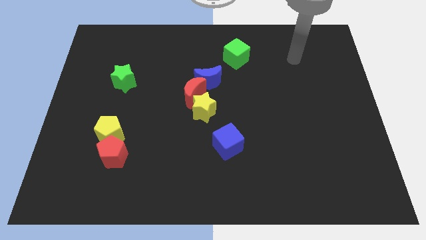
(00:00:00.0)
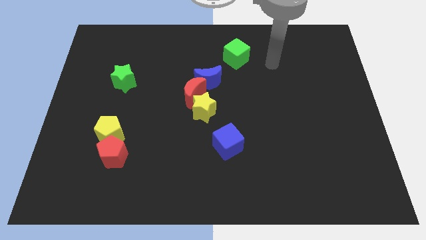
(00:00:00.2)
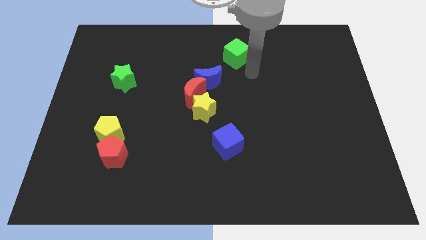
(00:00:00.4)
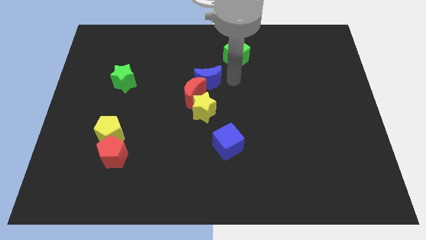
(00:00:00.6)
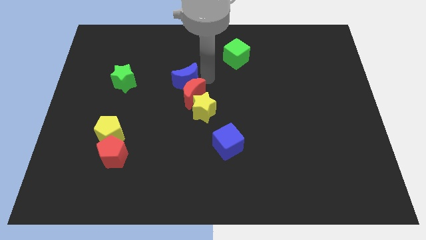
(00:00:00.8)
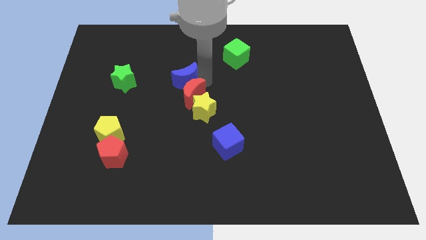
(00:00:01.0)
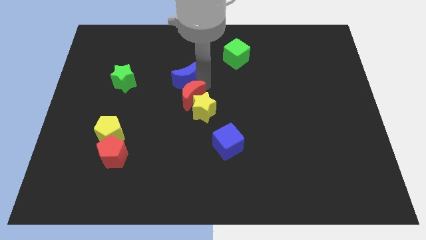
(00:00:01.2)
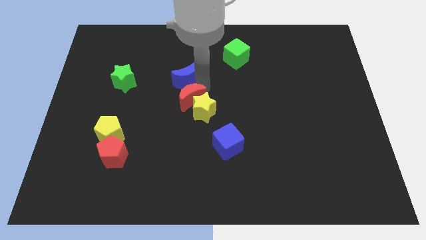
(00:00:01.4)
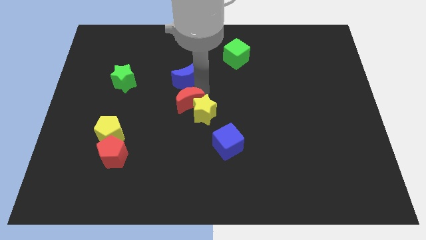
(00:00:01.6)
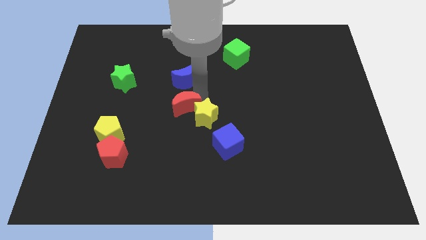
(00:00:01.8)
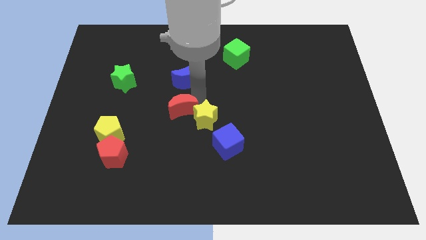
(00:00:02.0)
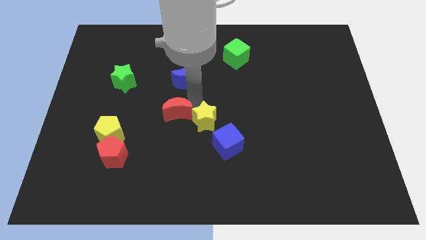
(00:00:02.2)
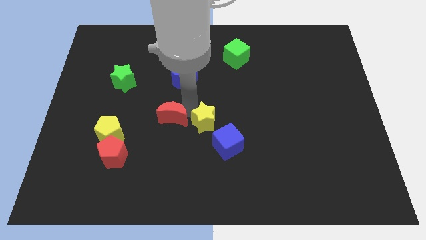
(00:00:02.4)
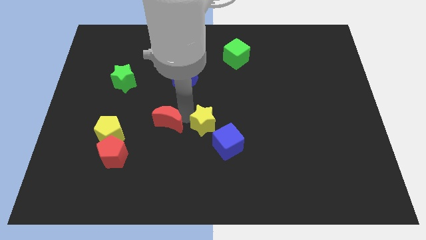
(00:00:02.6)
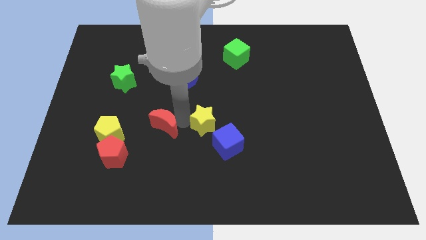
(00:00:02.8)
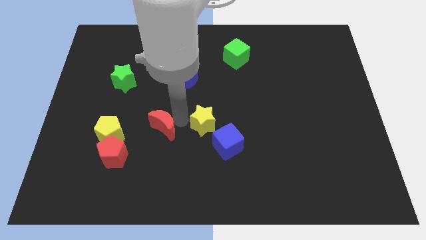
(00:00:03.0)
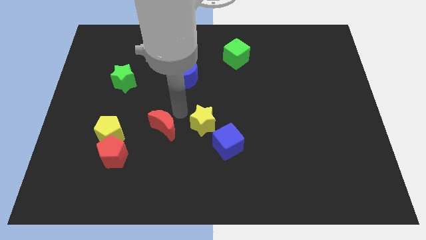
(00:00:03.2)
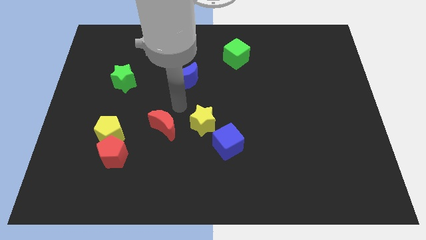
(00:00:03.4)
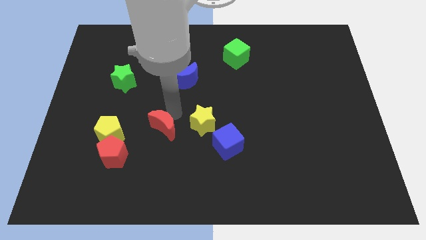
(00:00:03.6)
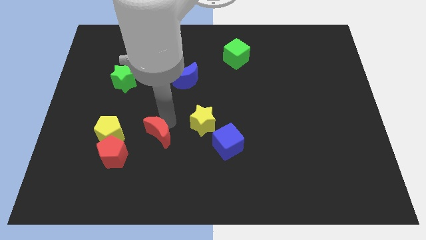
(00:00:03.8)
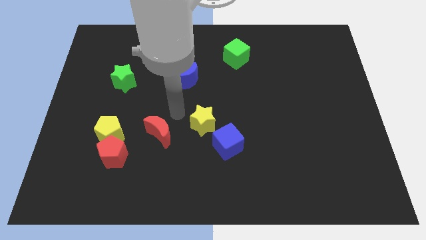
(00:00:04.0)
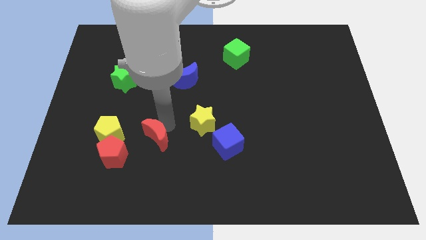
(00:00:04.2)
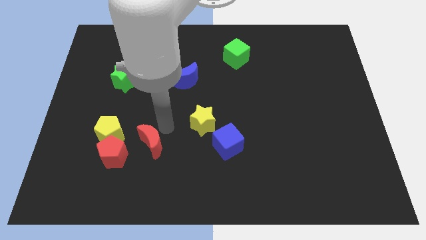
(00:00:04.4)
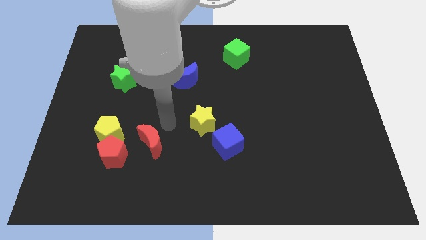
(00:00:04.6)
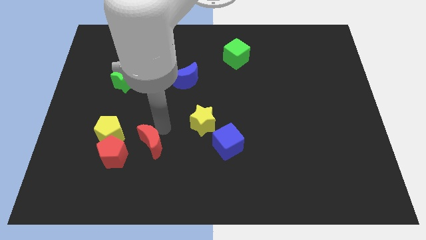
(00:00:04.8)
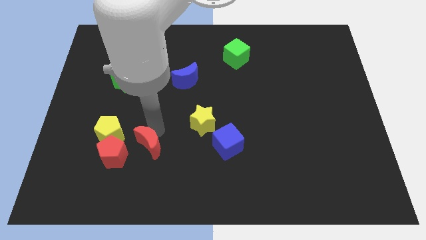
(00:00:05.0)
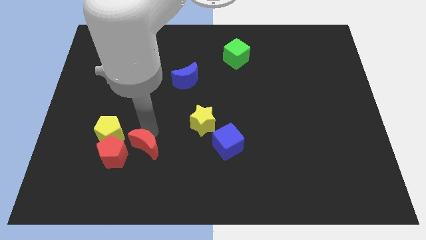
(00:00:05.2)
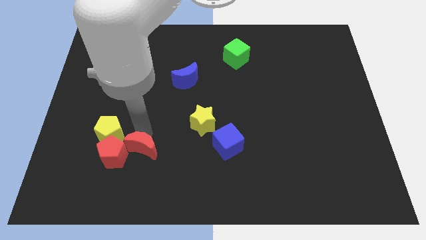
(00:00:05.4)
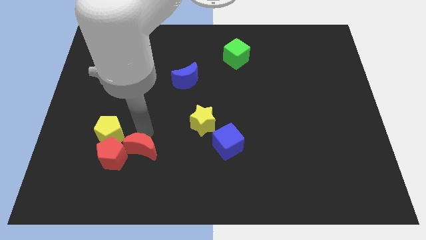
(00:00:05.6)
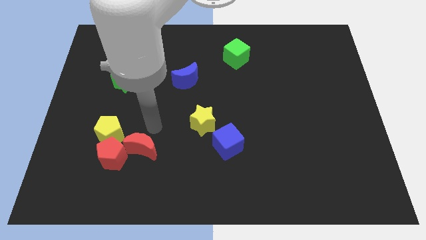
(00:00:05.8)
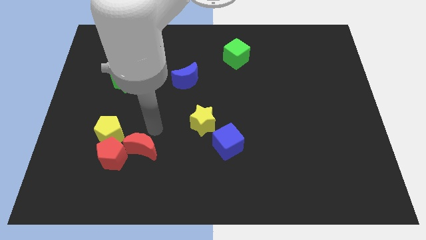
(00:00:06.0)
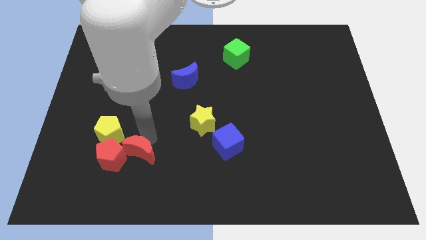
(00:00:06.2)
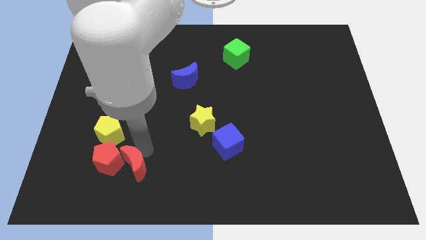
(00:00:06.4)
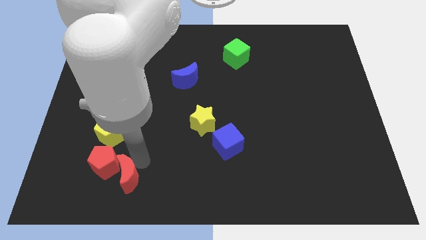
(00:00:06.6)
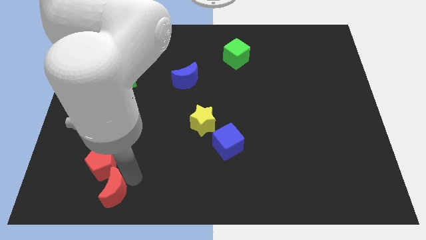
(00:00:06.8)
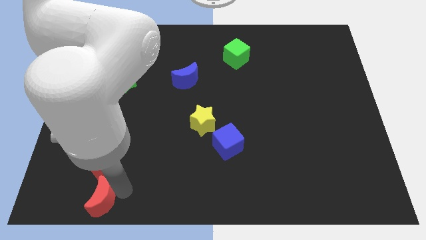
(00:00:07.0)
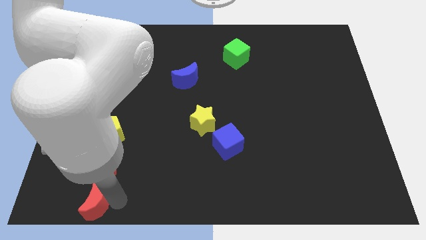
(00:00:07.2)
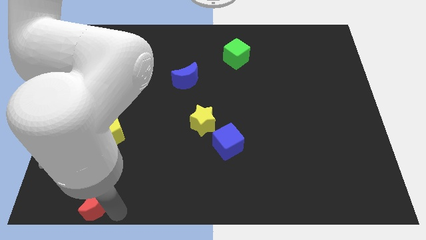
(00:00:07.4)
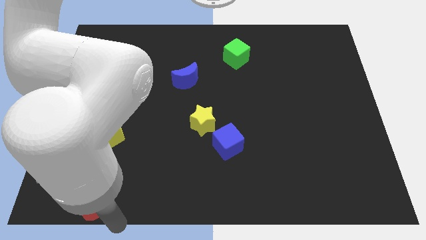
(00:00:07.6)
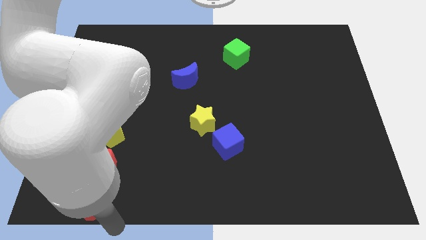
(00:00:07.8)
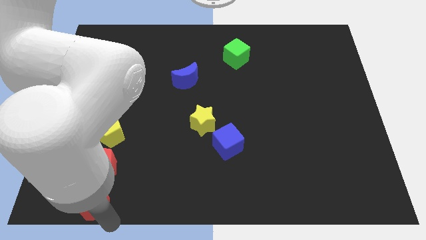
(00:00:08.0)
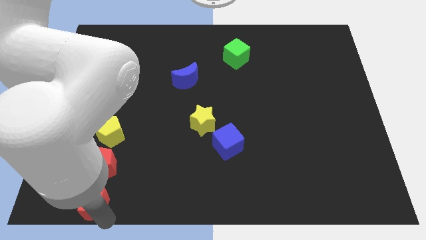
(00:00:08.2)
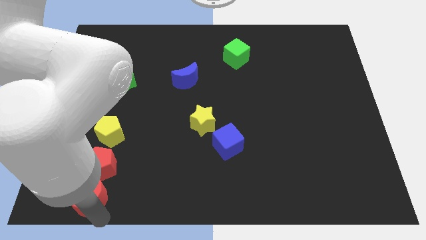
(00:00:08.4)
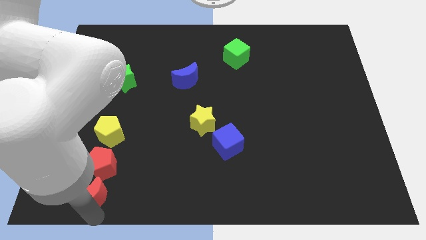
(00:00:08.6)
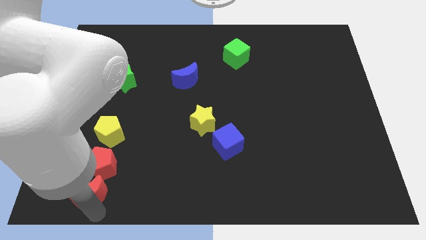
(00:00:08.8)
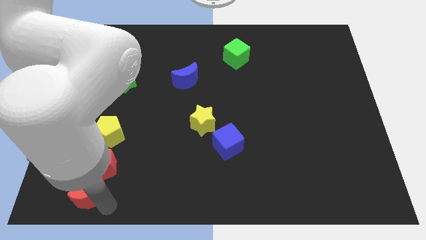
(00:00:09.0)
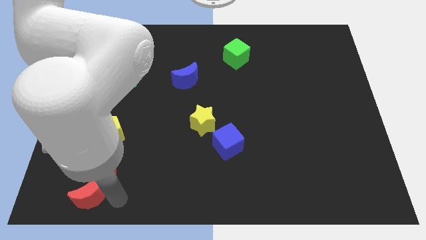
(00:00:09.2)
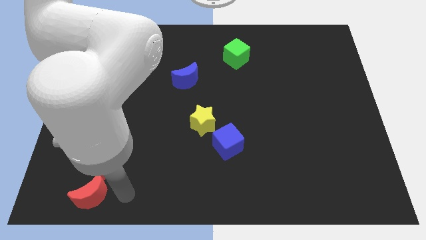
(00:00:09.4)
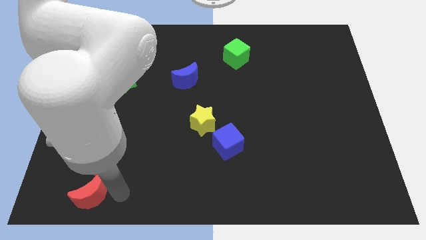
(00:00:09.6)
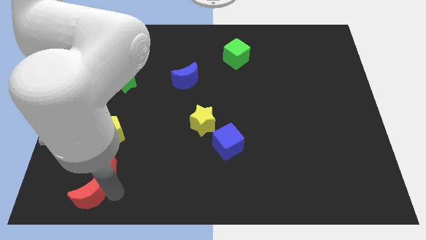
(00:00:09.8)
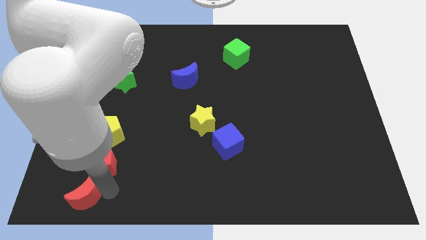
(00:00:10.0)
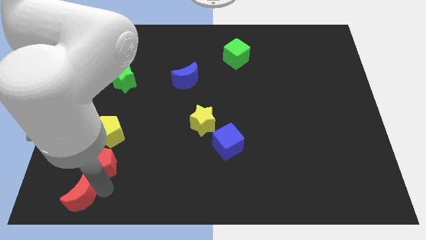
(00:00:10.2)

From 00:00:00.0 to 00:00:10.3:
put the red moon to the bottom left of the board
